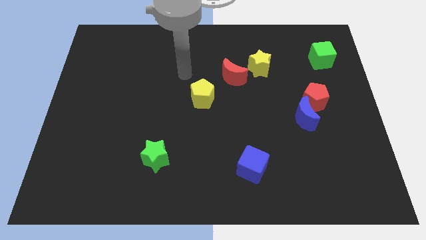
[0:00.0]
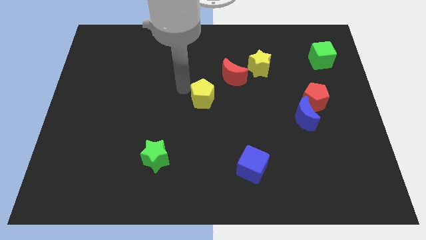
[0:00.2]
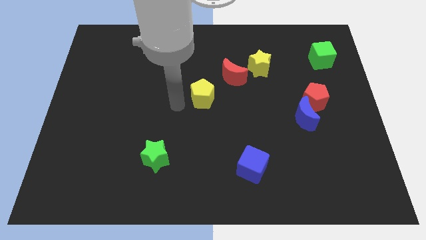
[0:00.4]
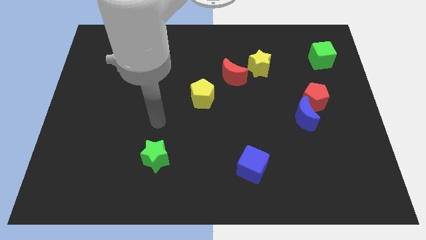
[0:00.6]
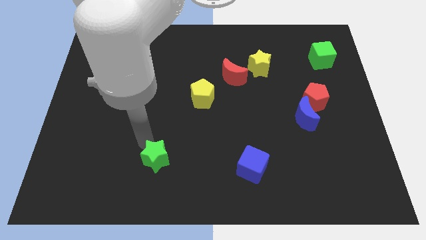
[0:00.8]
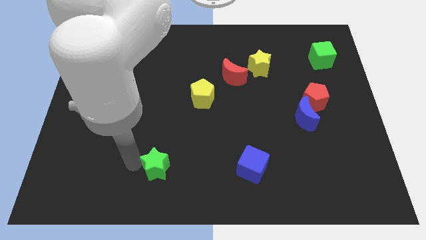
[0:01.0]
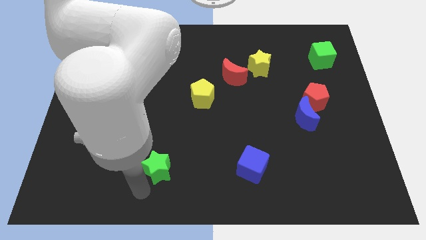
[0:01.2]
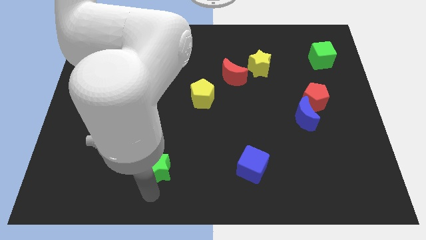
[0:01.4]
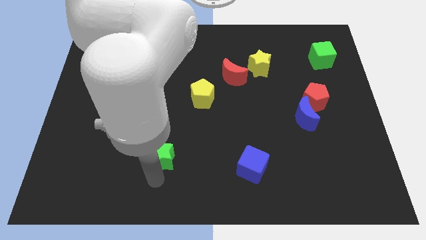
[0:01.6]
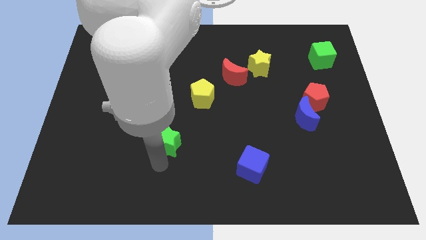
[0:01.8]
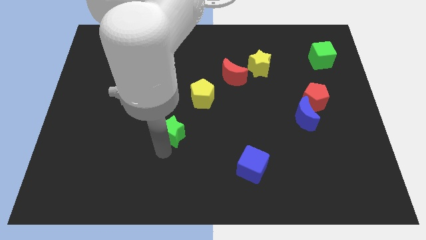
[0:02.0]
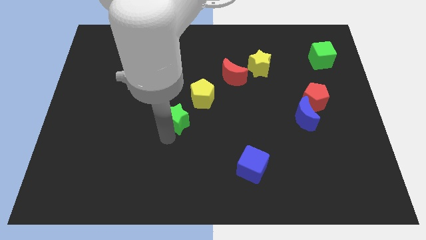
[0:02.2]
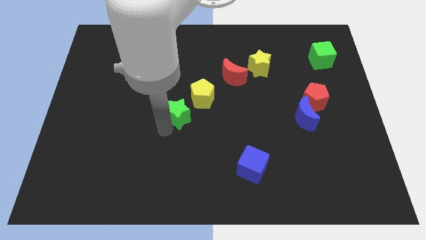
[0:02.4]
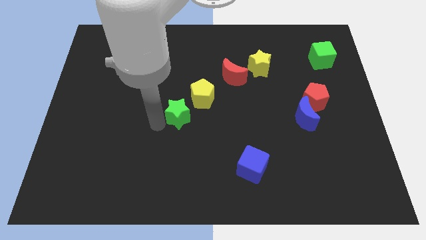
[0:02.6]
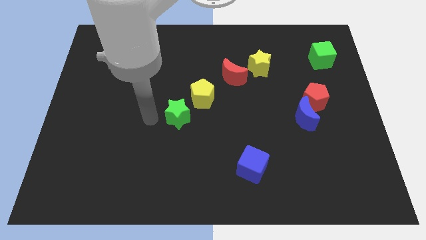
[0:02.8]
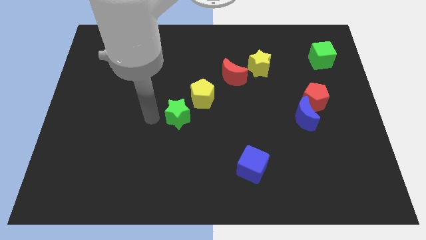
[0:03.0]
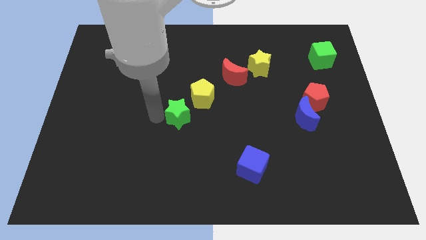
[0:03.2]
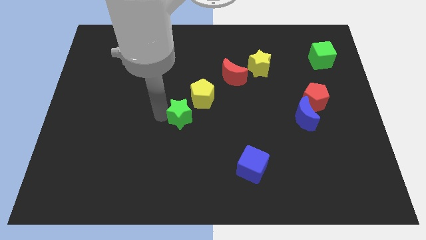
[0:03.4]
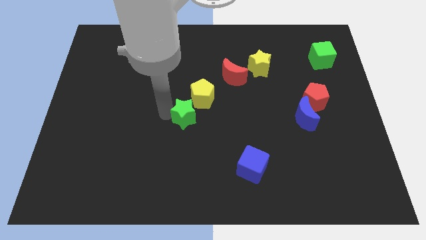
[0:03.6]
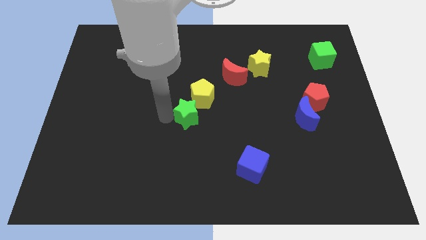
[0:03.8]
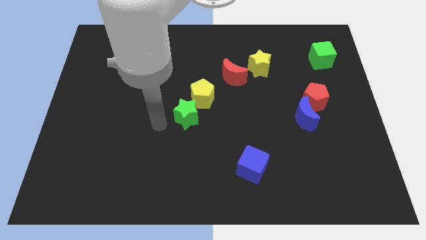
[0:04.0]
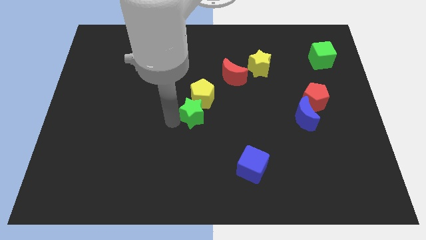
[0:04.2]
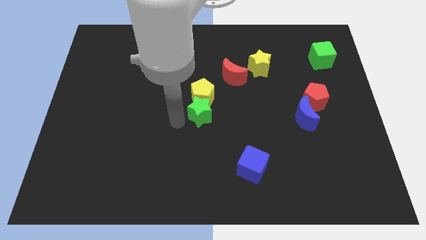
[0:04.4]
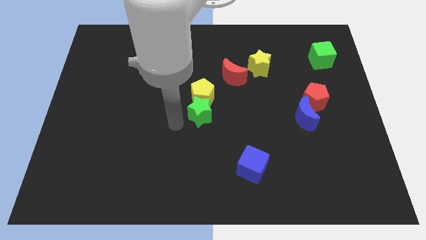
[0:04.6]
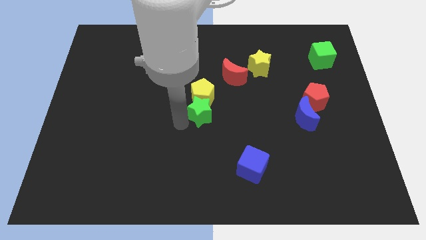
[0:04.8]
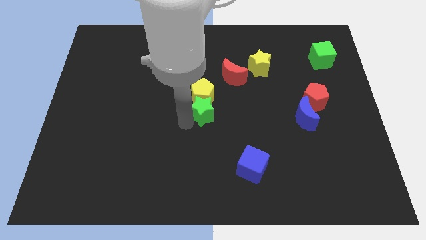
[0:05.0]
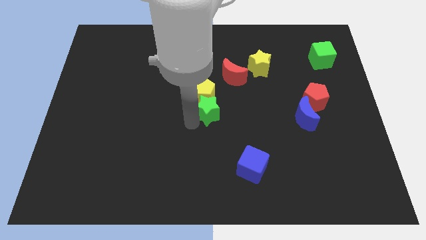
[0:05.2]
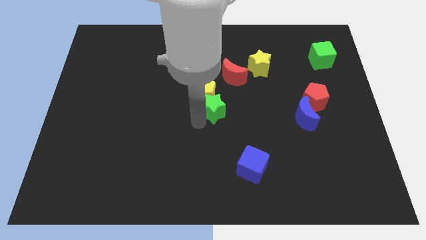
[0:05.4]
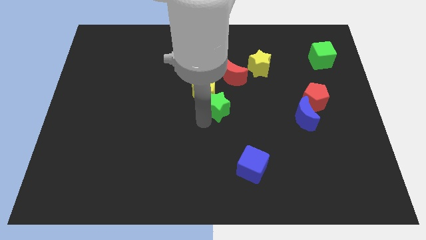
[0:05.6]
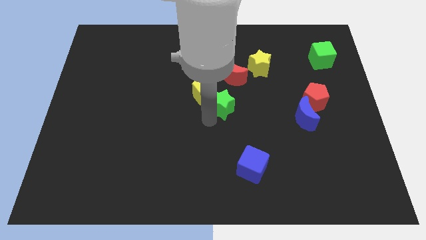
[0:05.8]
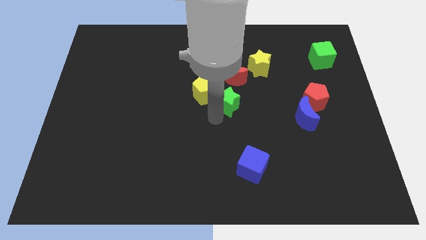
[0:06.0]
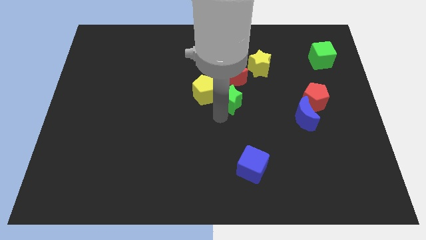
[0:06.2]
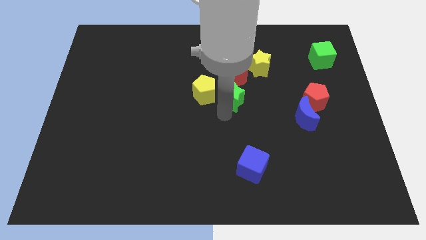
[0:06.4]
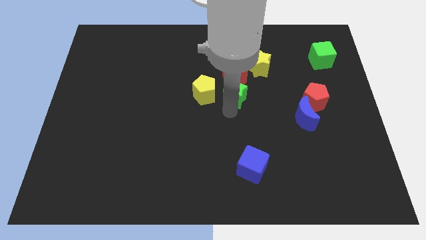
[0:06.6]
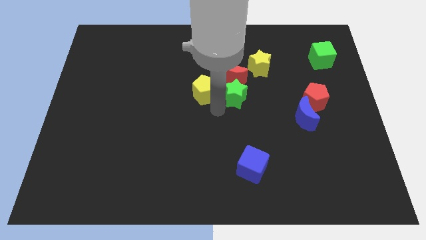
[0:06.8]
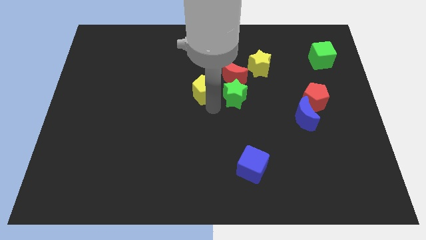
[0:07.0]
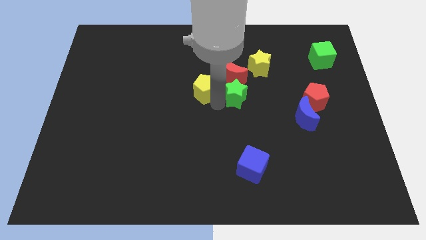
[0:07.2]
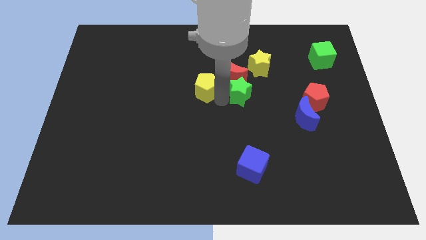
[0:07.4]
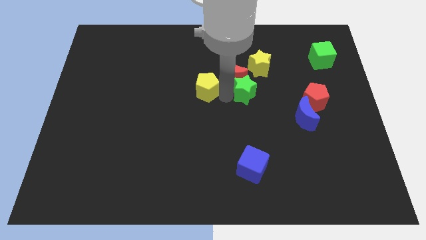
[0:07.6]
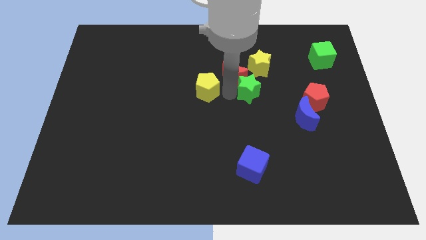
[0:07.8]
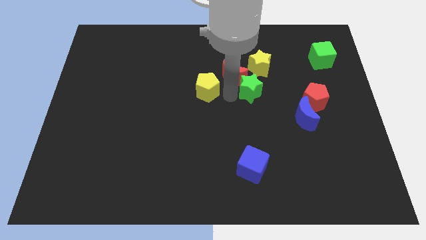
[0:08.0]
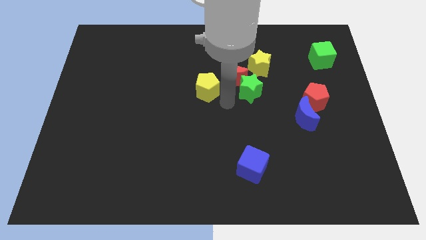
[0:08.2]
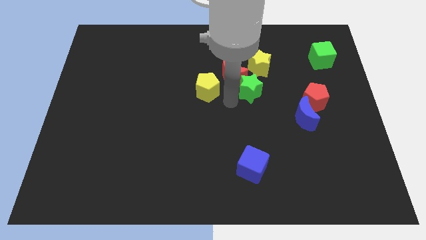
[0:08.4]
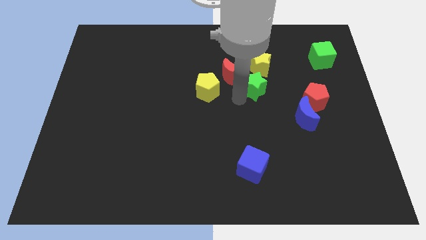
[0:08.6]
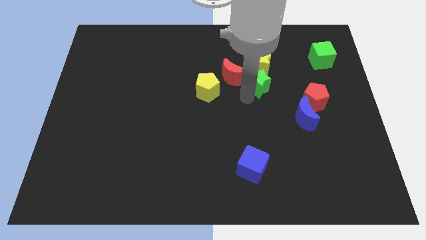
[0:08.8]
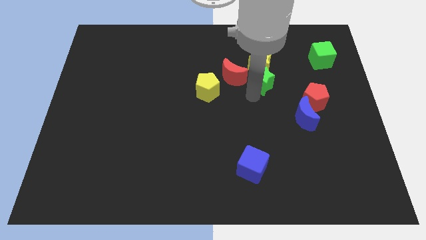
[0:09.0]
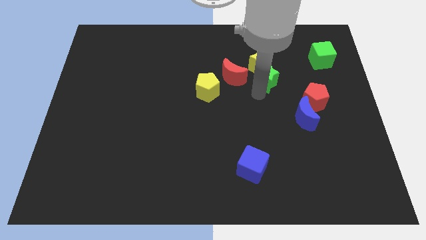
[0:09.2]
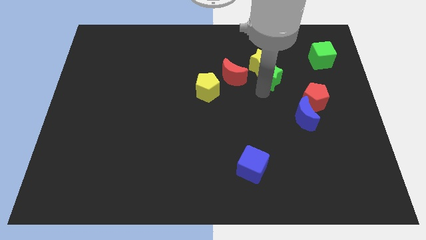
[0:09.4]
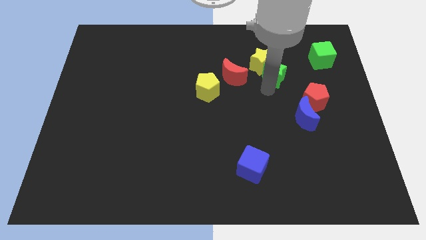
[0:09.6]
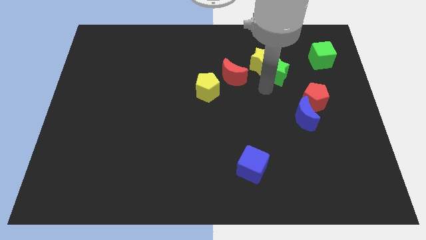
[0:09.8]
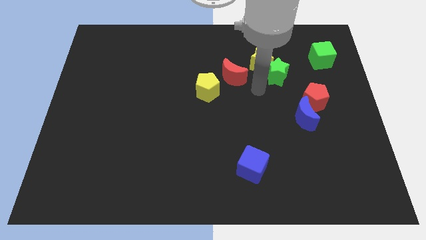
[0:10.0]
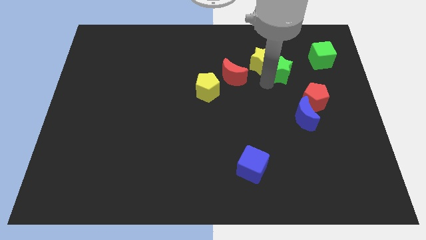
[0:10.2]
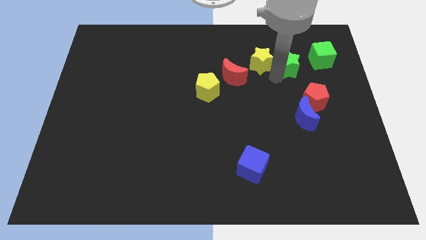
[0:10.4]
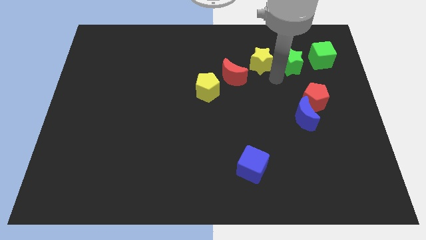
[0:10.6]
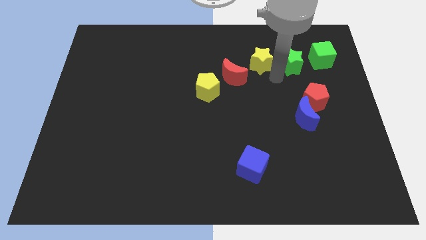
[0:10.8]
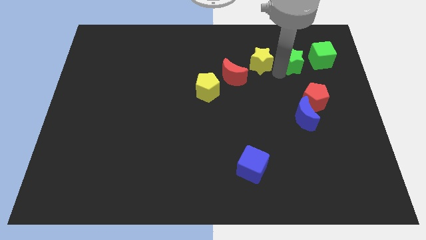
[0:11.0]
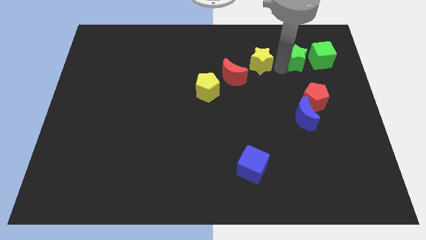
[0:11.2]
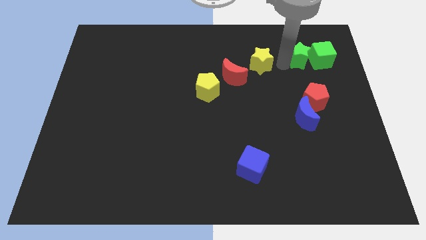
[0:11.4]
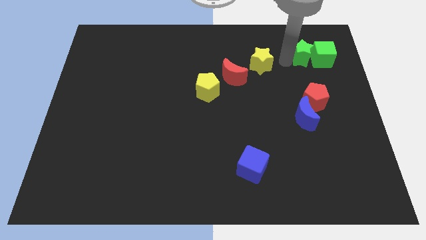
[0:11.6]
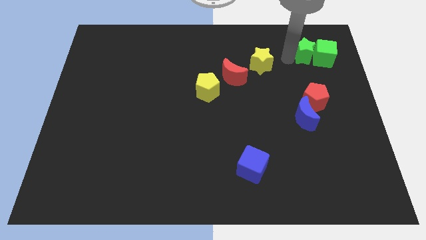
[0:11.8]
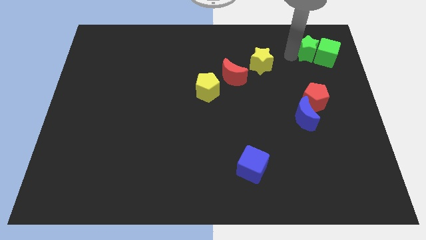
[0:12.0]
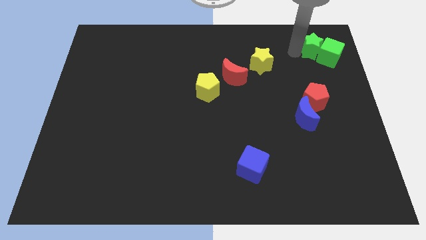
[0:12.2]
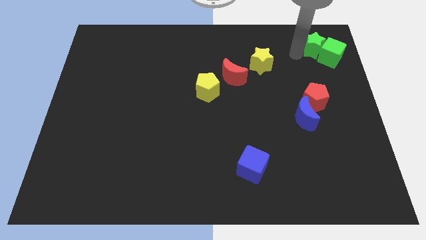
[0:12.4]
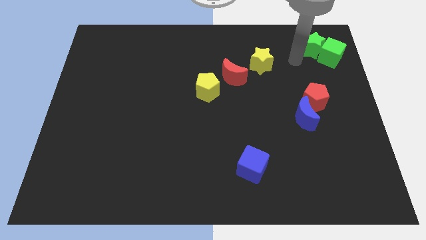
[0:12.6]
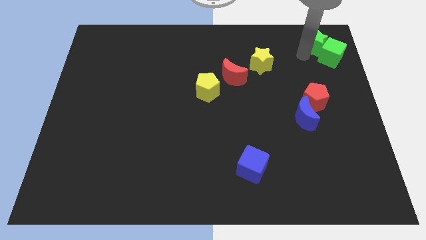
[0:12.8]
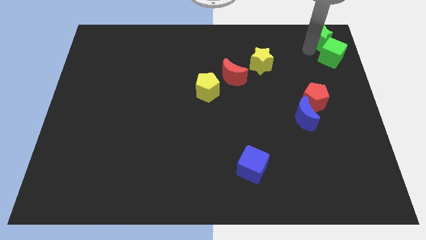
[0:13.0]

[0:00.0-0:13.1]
put the green star to the top right corner

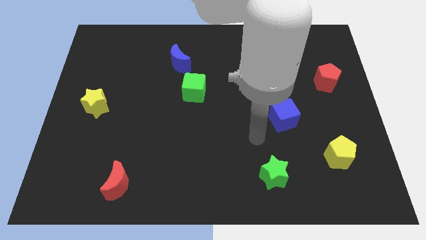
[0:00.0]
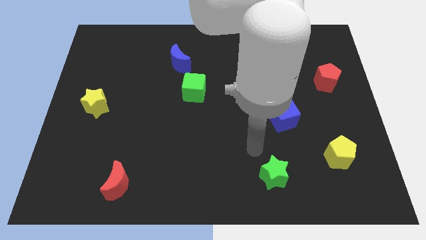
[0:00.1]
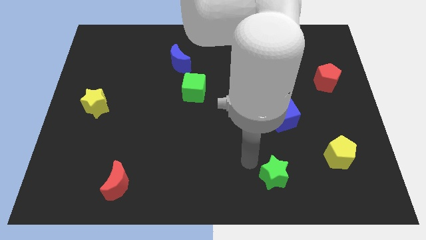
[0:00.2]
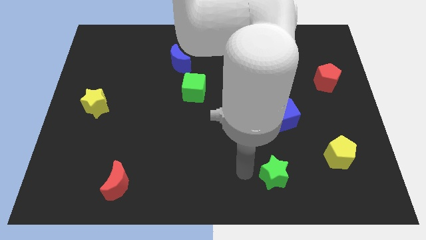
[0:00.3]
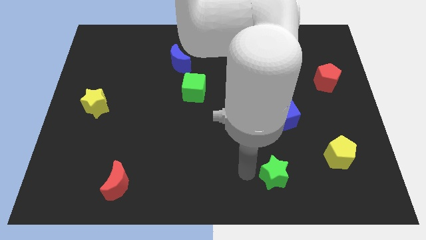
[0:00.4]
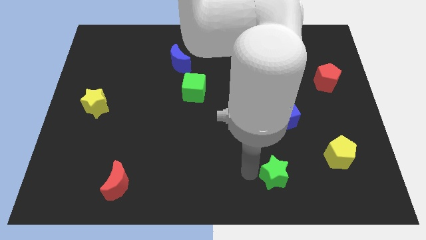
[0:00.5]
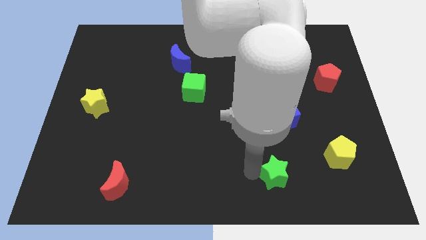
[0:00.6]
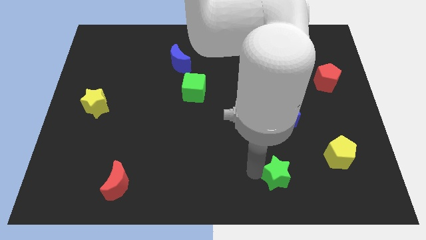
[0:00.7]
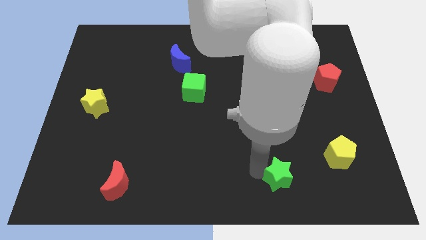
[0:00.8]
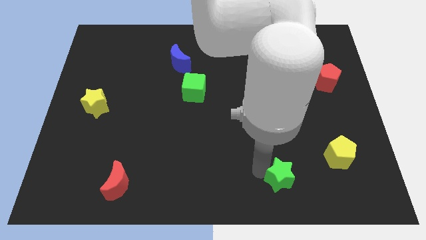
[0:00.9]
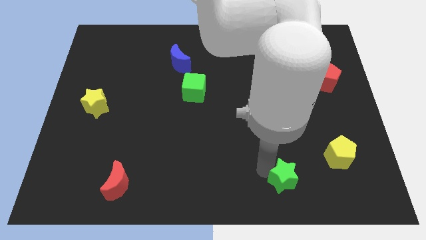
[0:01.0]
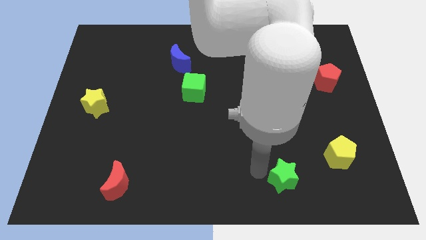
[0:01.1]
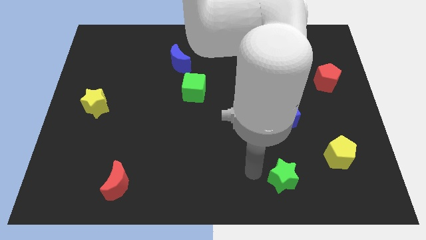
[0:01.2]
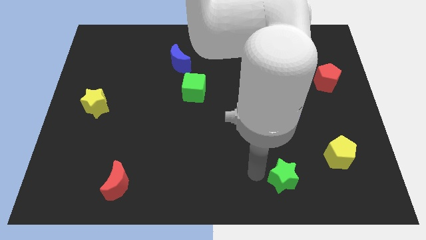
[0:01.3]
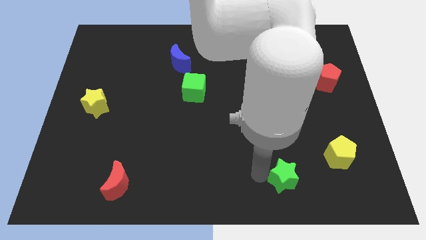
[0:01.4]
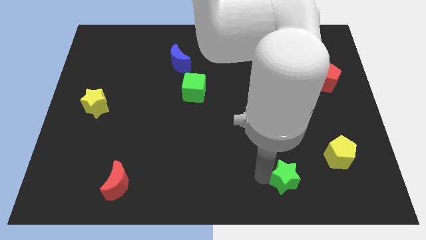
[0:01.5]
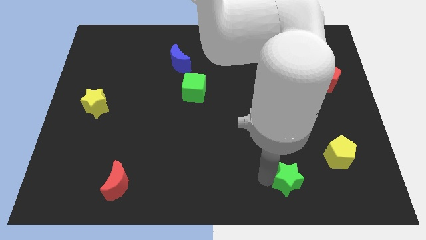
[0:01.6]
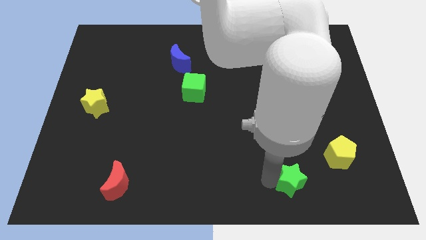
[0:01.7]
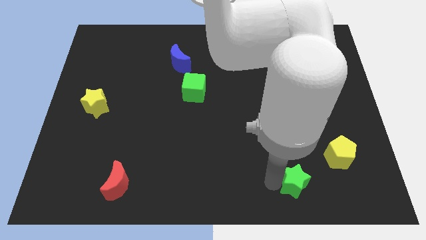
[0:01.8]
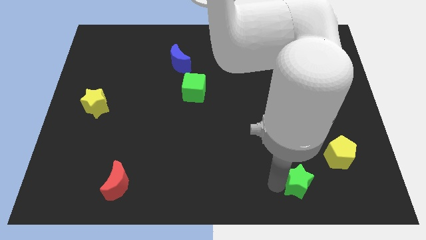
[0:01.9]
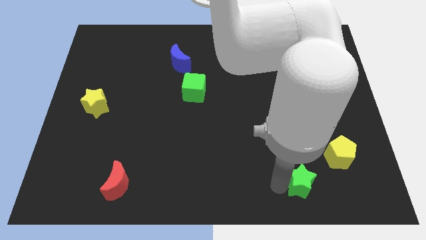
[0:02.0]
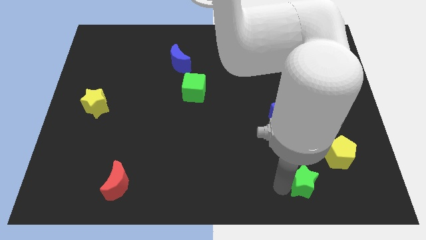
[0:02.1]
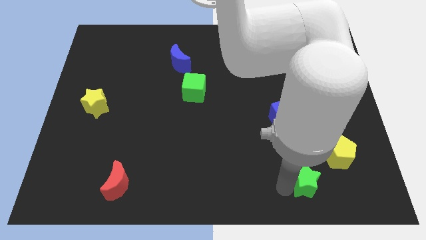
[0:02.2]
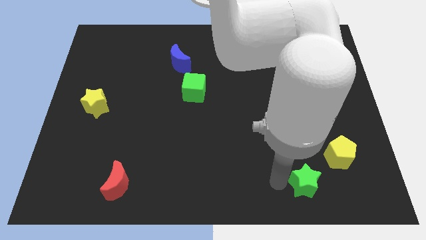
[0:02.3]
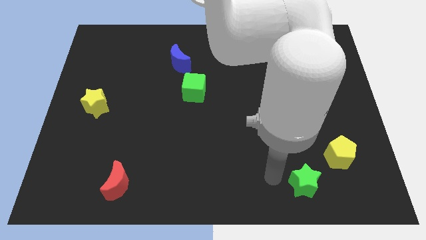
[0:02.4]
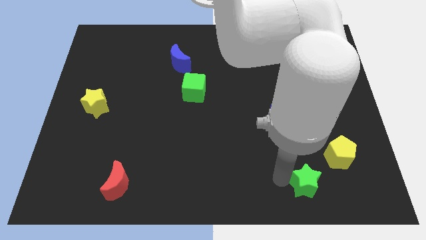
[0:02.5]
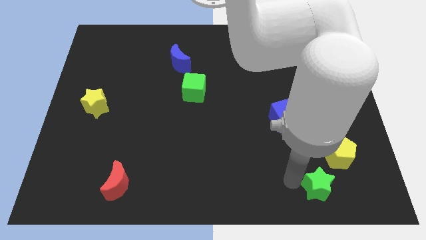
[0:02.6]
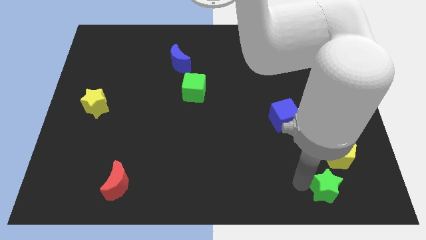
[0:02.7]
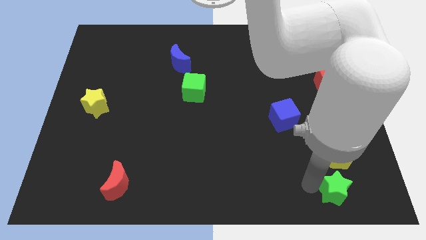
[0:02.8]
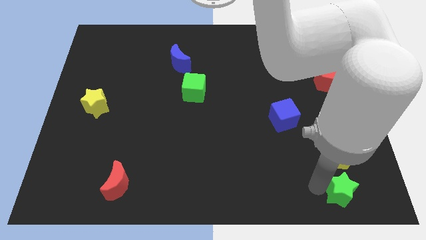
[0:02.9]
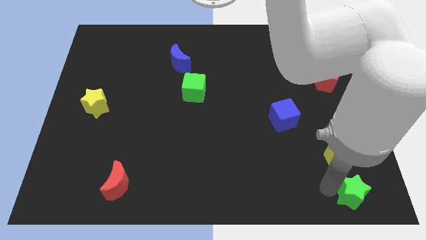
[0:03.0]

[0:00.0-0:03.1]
move the green star to the bottom right of the board
